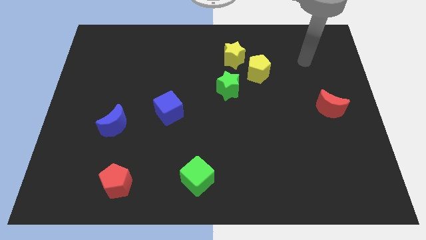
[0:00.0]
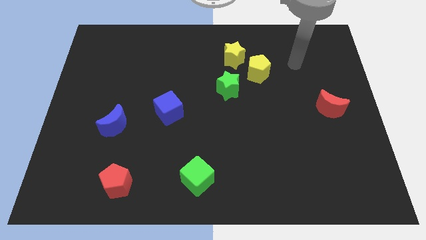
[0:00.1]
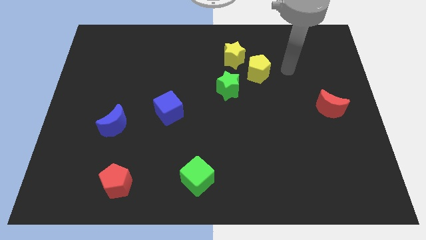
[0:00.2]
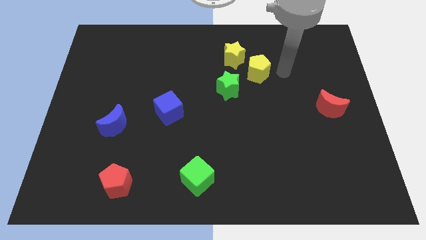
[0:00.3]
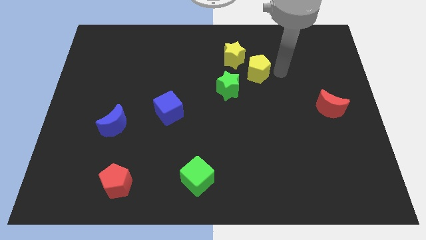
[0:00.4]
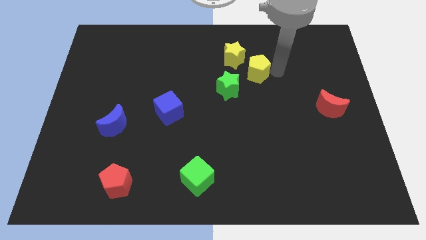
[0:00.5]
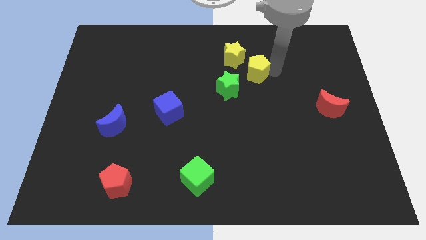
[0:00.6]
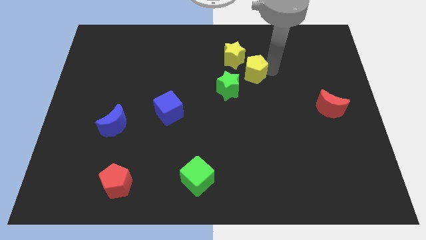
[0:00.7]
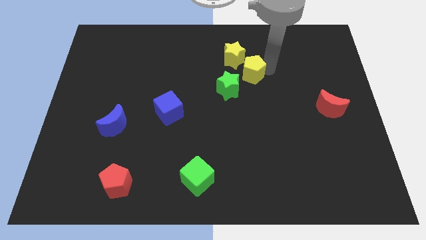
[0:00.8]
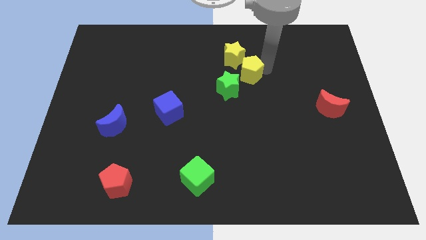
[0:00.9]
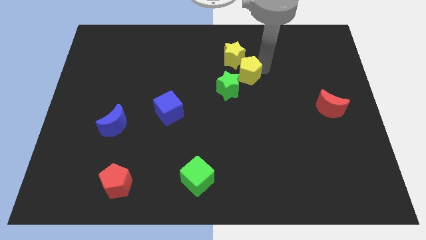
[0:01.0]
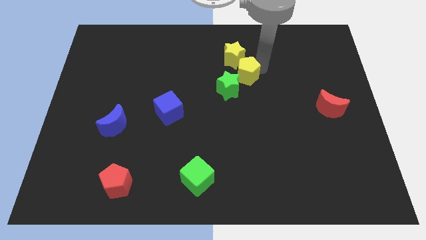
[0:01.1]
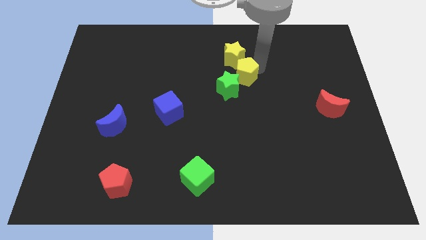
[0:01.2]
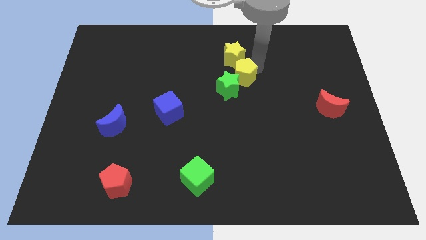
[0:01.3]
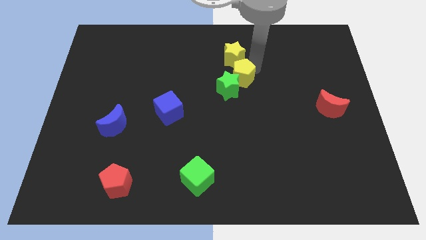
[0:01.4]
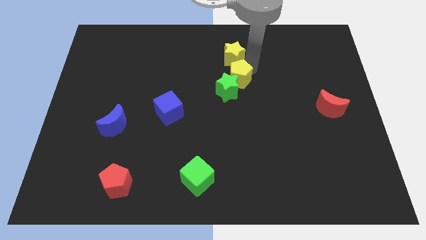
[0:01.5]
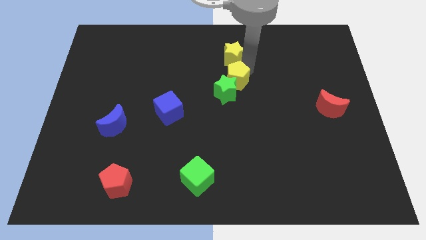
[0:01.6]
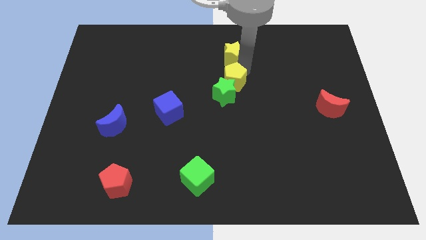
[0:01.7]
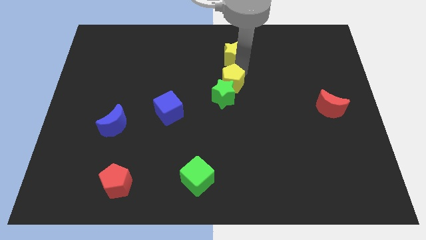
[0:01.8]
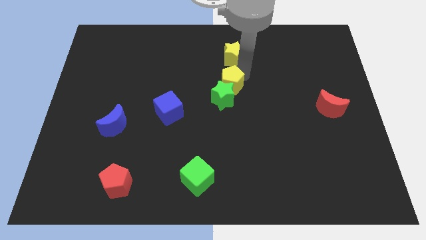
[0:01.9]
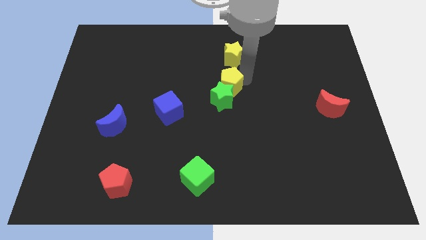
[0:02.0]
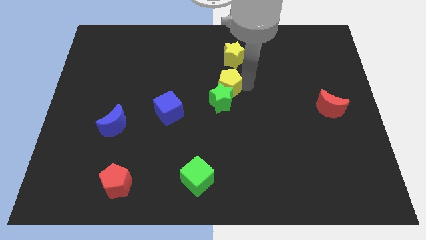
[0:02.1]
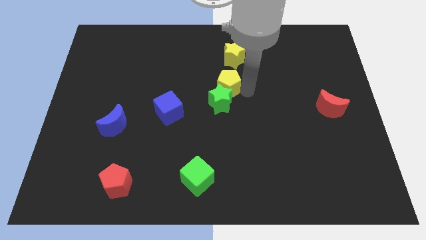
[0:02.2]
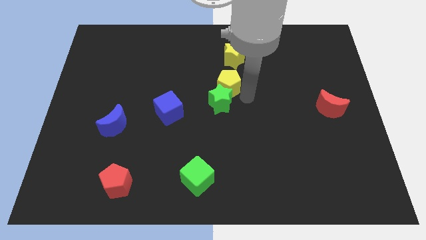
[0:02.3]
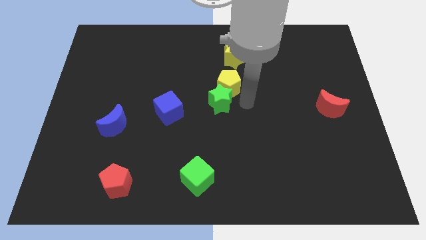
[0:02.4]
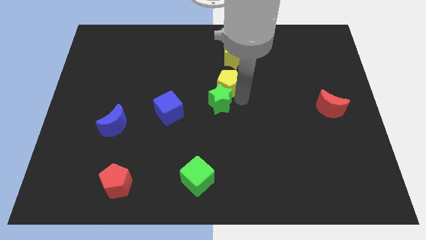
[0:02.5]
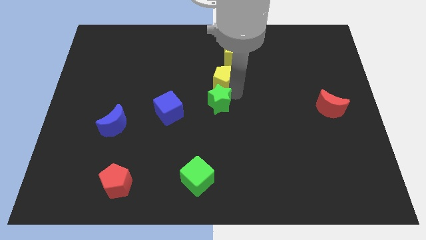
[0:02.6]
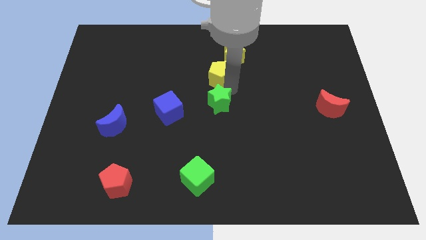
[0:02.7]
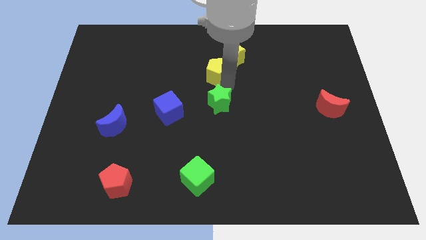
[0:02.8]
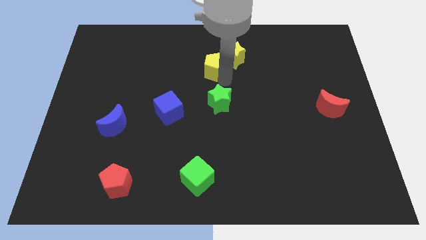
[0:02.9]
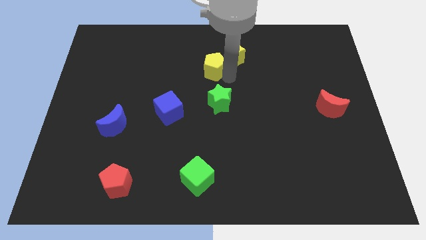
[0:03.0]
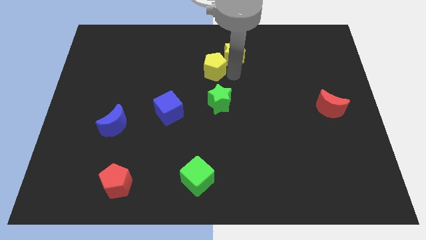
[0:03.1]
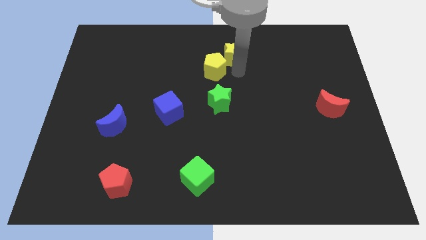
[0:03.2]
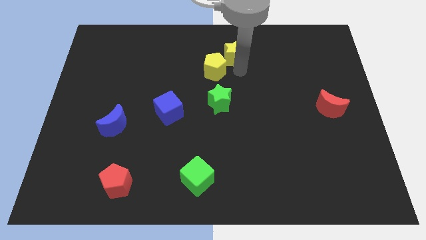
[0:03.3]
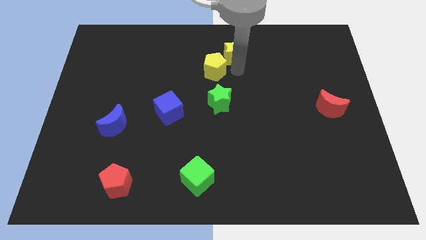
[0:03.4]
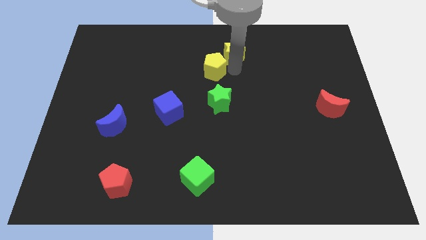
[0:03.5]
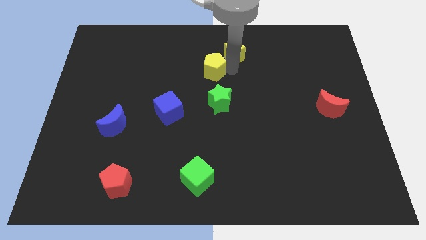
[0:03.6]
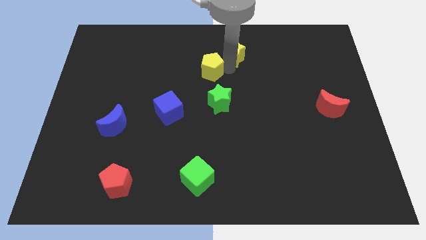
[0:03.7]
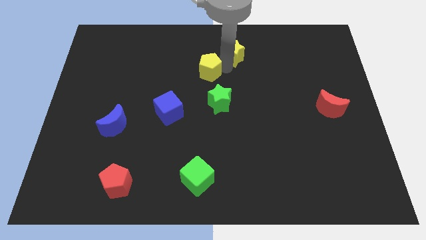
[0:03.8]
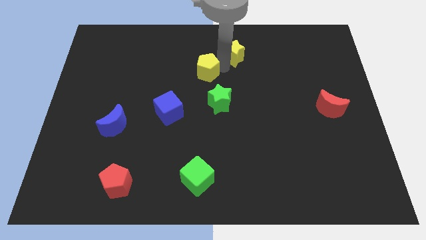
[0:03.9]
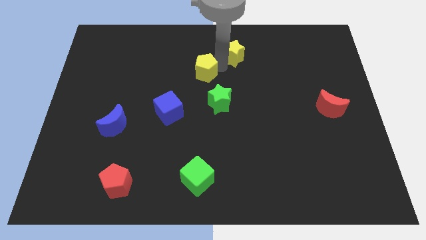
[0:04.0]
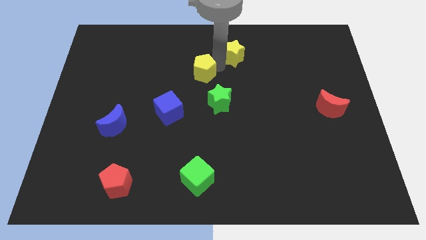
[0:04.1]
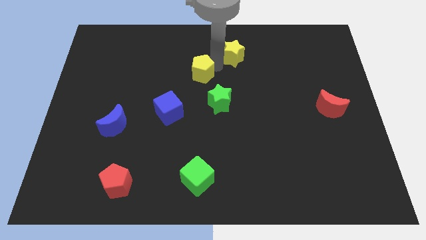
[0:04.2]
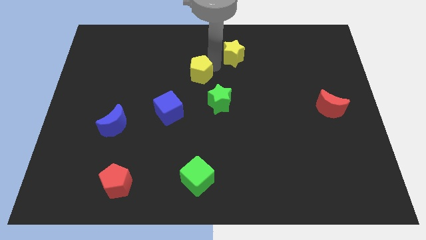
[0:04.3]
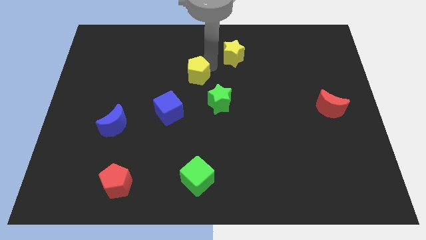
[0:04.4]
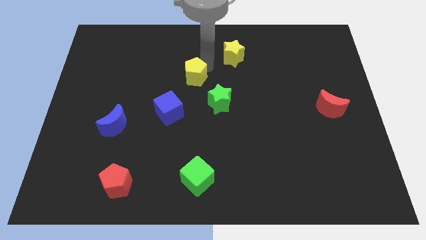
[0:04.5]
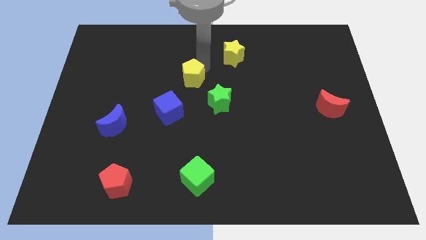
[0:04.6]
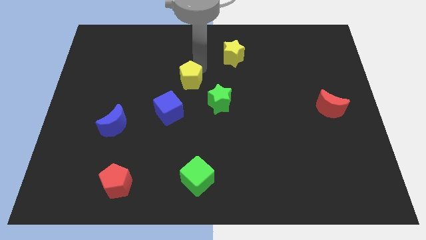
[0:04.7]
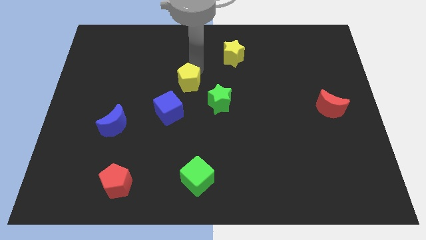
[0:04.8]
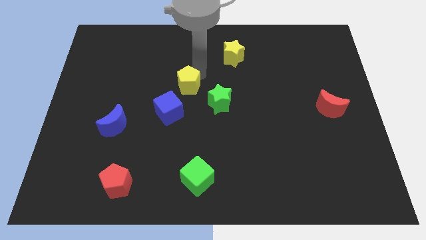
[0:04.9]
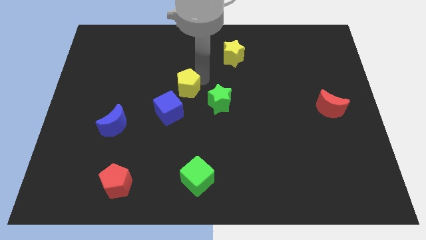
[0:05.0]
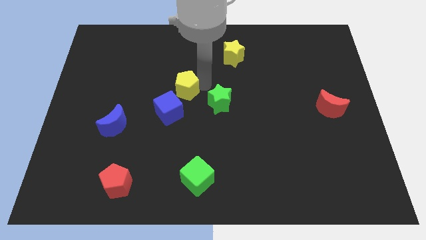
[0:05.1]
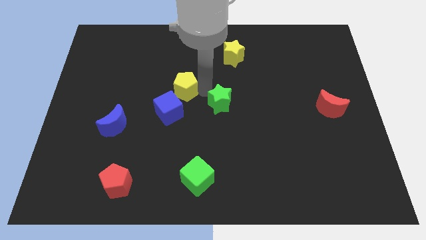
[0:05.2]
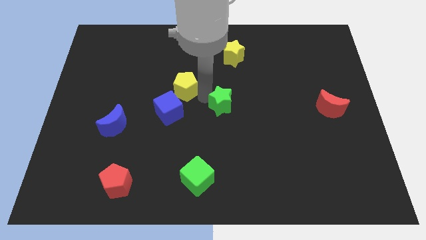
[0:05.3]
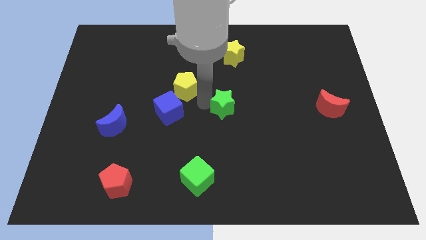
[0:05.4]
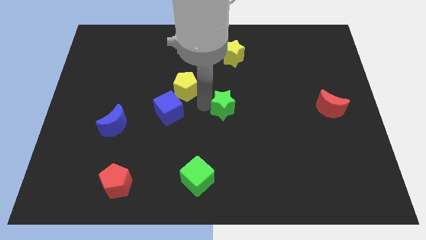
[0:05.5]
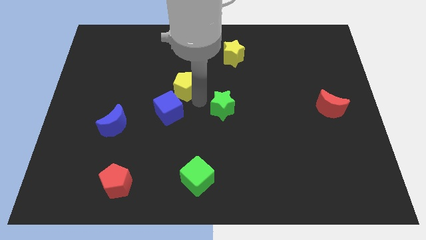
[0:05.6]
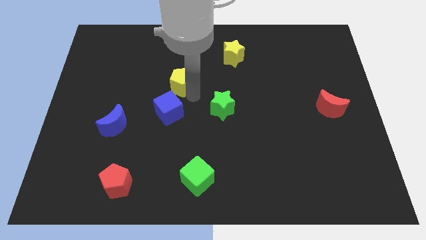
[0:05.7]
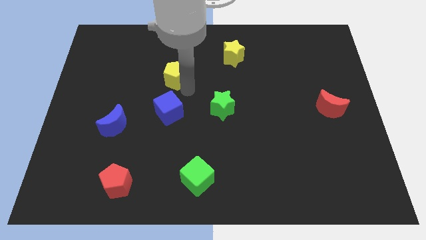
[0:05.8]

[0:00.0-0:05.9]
push the yellow pentagon to the left

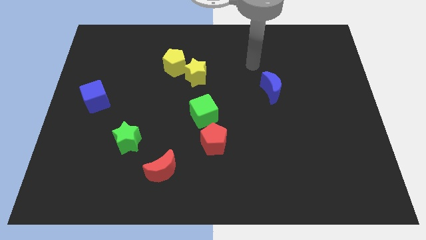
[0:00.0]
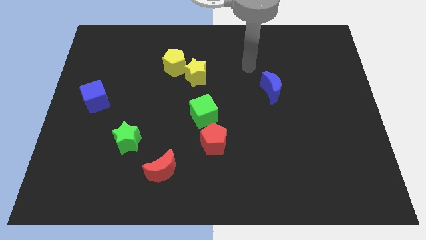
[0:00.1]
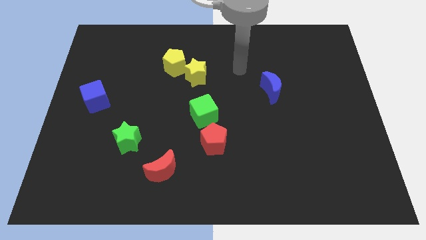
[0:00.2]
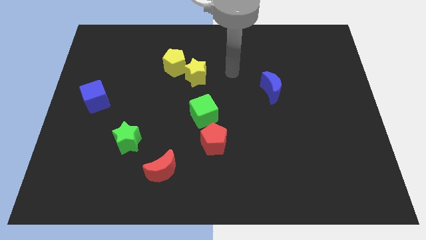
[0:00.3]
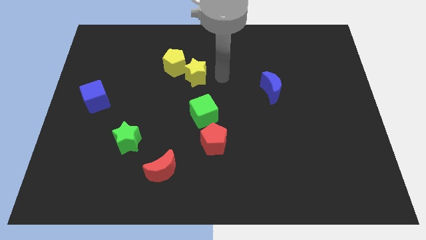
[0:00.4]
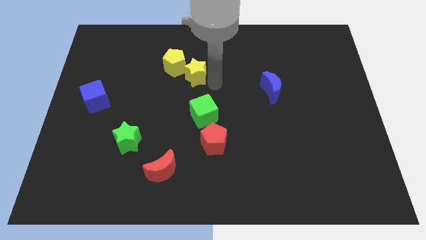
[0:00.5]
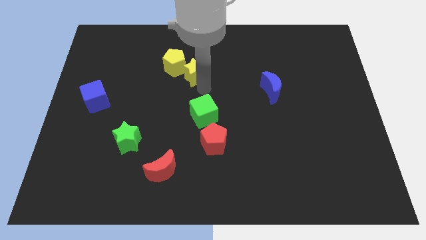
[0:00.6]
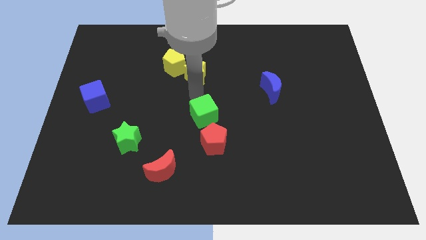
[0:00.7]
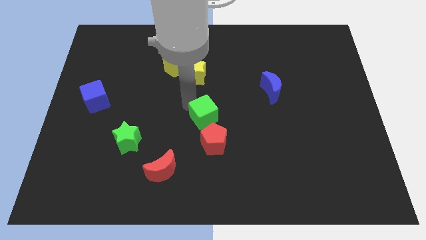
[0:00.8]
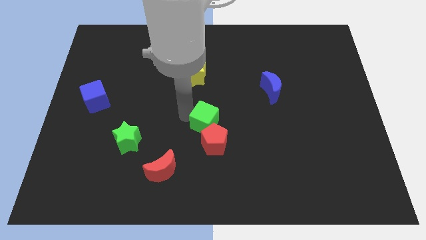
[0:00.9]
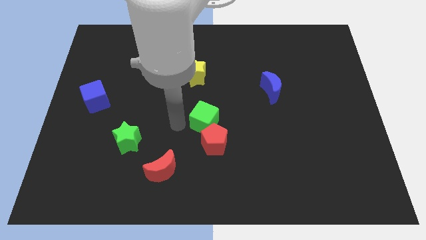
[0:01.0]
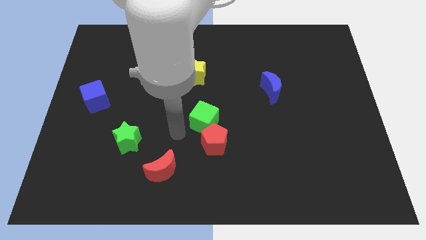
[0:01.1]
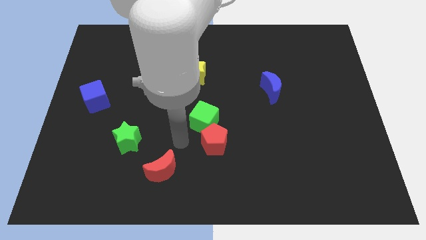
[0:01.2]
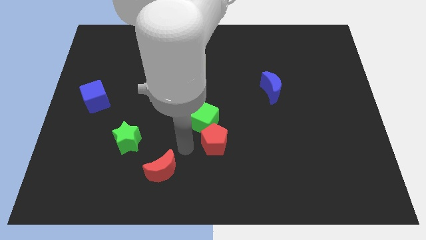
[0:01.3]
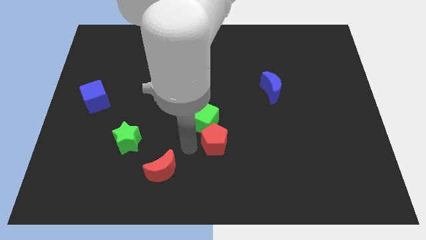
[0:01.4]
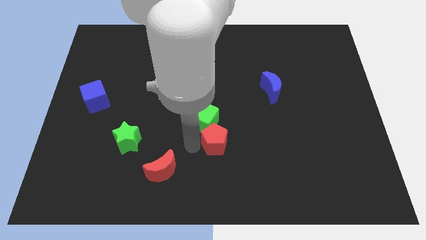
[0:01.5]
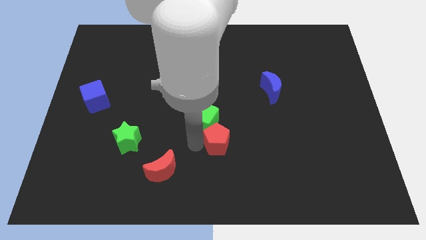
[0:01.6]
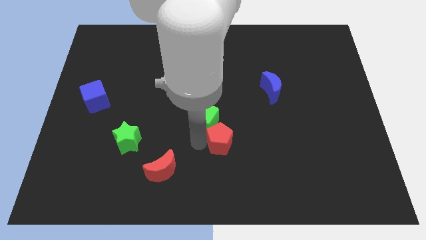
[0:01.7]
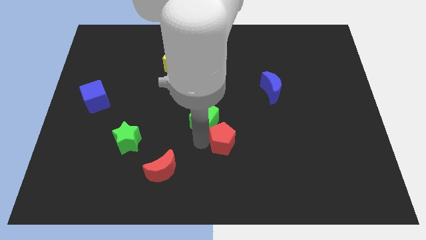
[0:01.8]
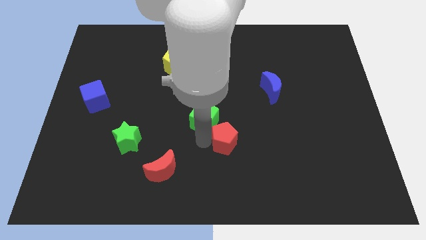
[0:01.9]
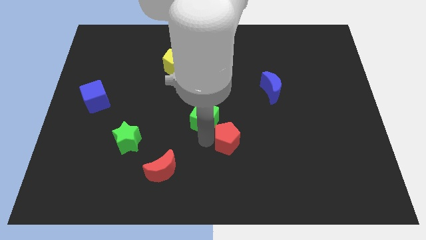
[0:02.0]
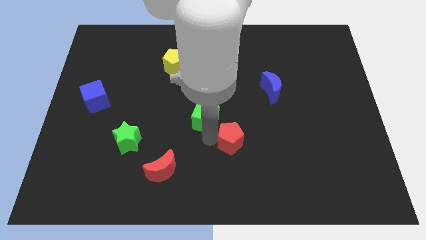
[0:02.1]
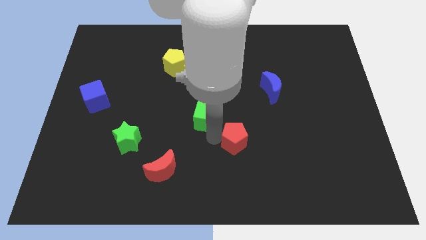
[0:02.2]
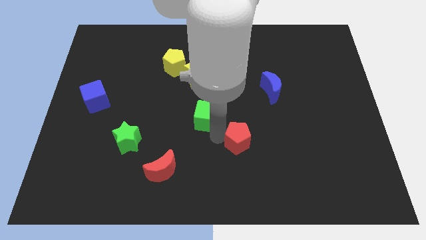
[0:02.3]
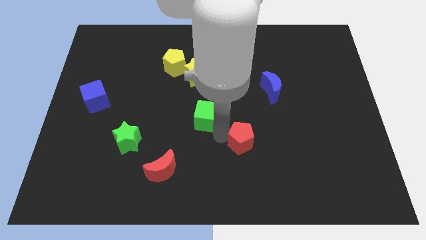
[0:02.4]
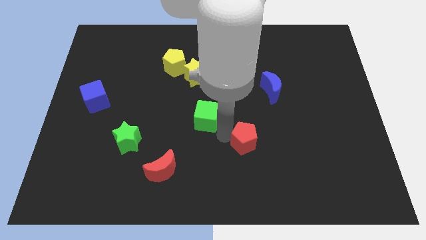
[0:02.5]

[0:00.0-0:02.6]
slide the red pentagon right a bit
